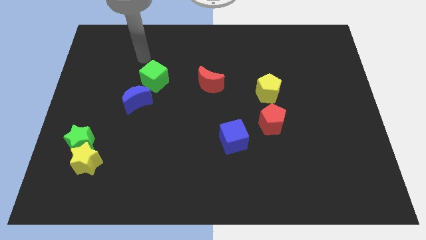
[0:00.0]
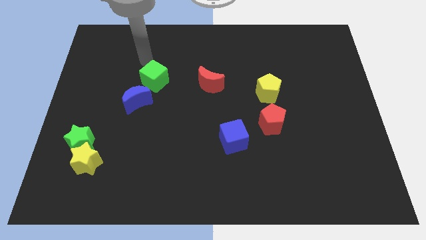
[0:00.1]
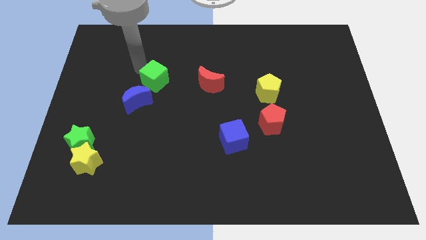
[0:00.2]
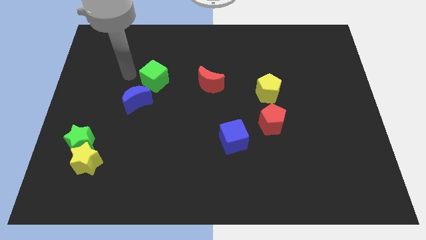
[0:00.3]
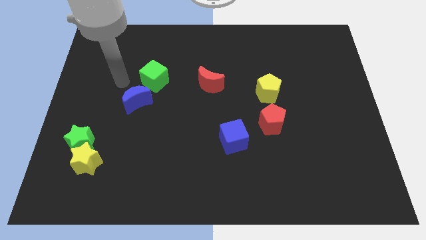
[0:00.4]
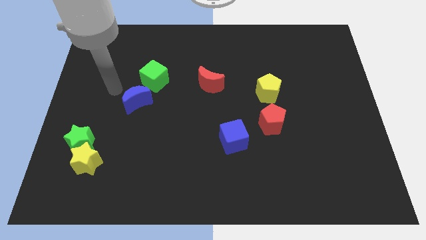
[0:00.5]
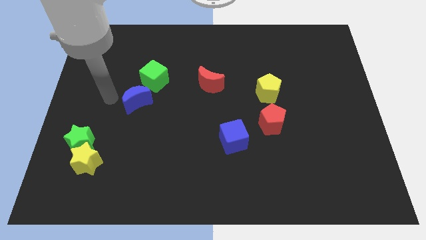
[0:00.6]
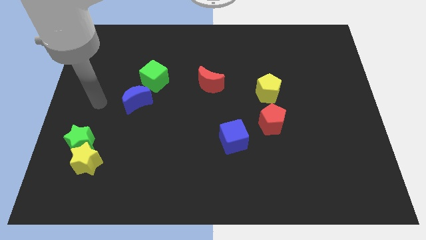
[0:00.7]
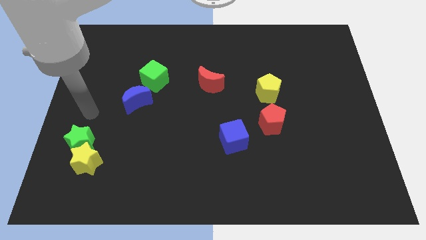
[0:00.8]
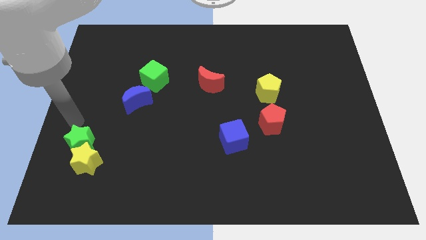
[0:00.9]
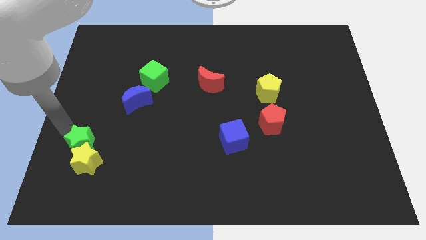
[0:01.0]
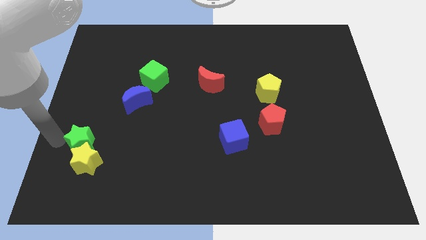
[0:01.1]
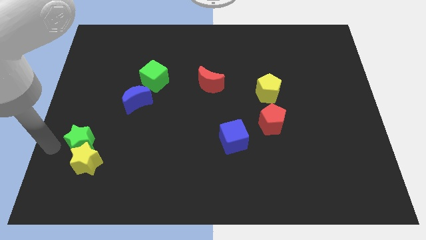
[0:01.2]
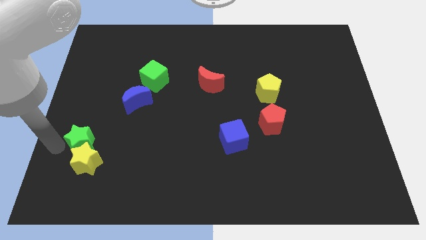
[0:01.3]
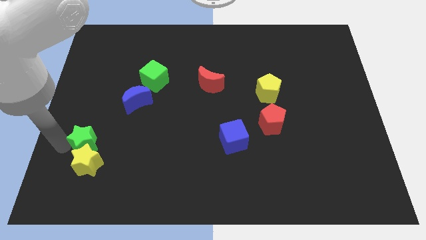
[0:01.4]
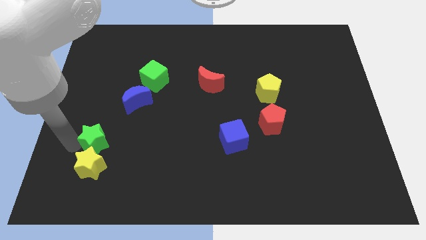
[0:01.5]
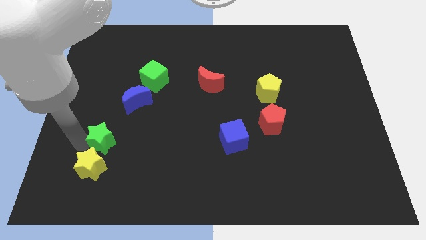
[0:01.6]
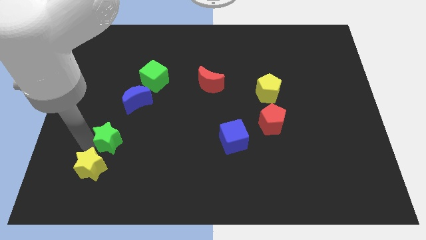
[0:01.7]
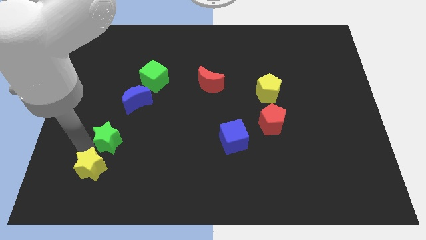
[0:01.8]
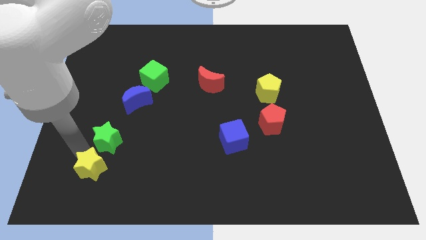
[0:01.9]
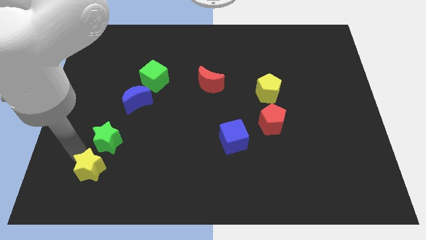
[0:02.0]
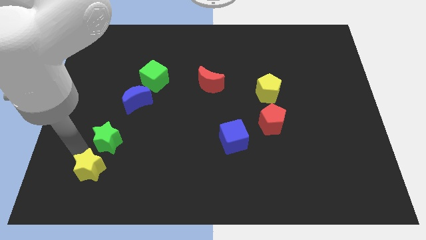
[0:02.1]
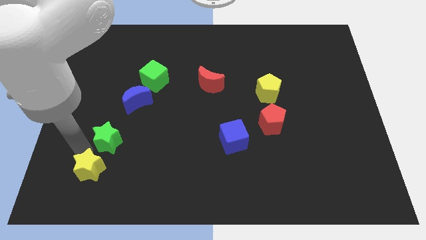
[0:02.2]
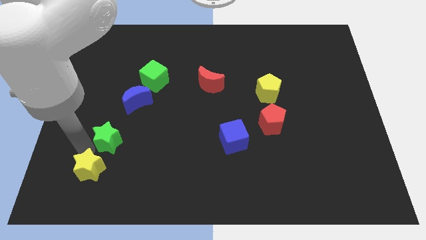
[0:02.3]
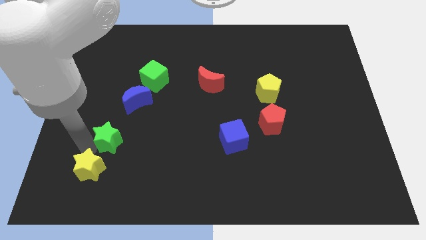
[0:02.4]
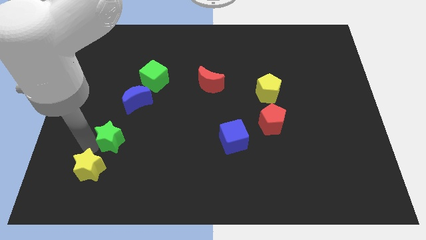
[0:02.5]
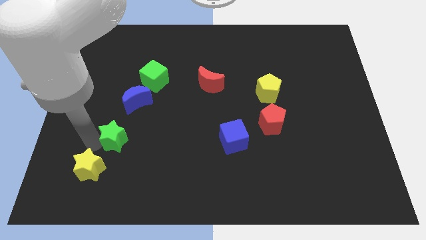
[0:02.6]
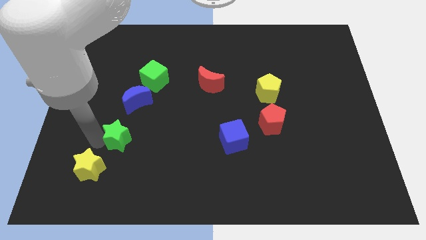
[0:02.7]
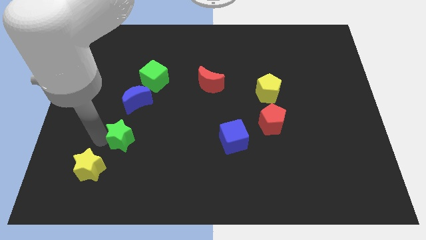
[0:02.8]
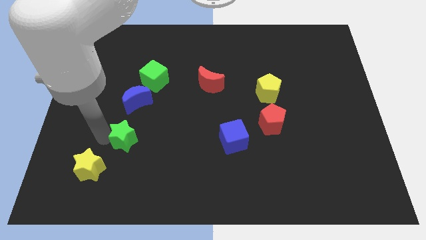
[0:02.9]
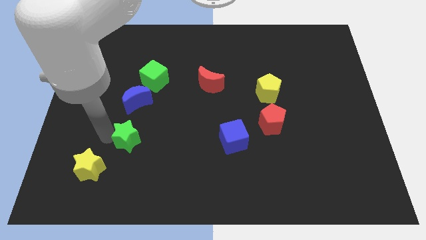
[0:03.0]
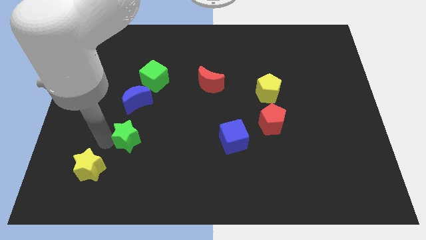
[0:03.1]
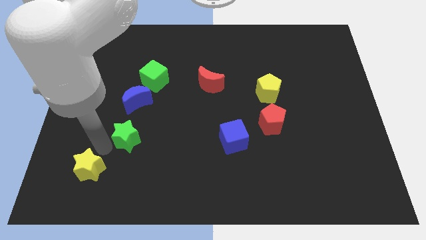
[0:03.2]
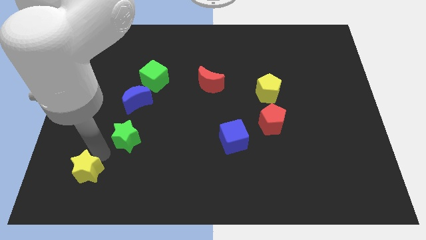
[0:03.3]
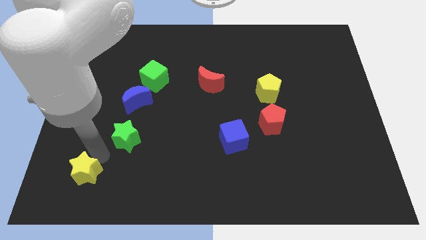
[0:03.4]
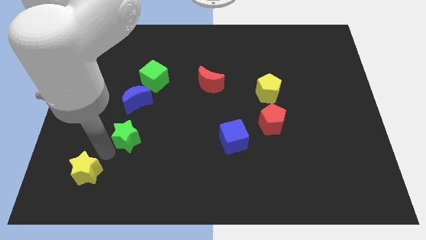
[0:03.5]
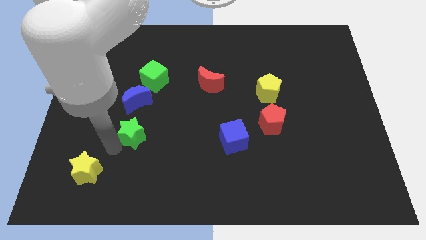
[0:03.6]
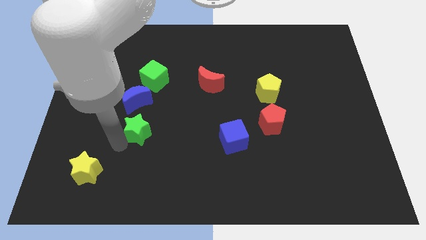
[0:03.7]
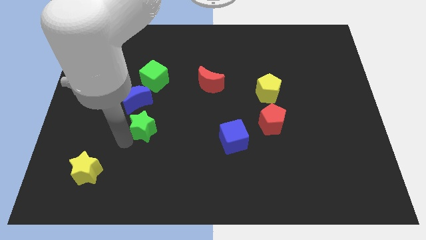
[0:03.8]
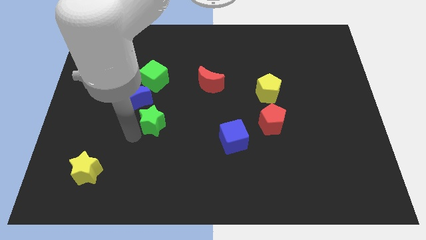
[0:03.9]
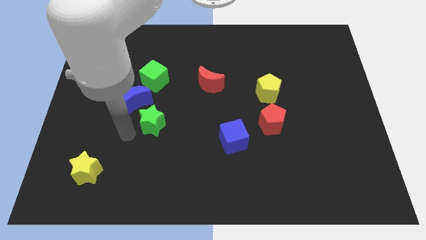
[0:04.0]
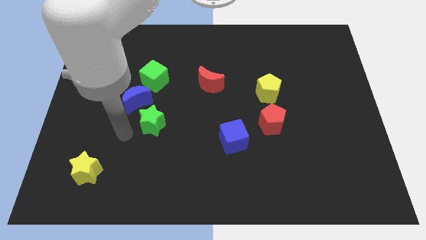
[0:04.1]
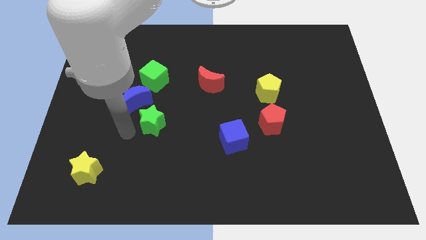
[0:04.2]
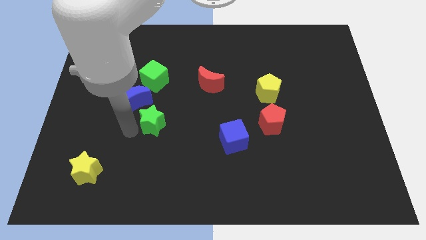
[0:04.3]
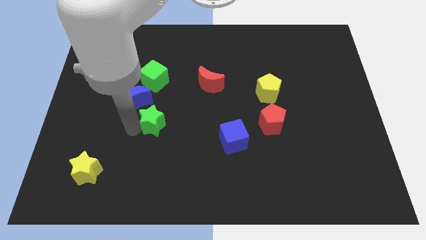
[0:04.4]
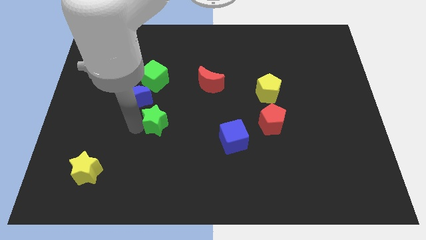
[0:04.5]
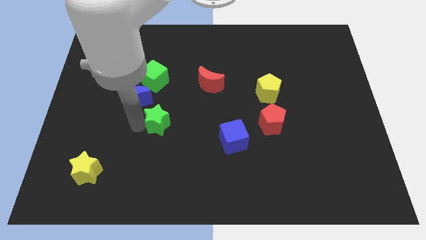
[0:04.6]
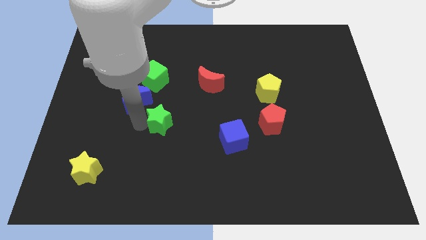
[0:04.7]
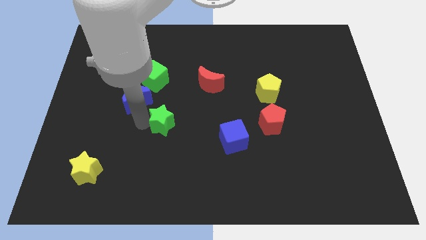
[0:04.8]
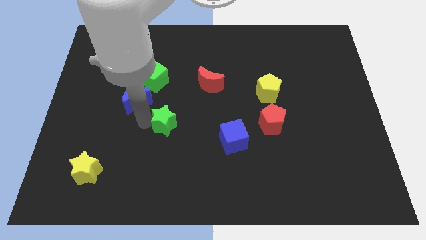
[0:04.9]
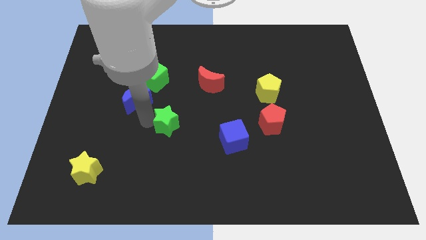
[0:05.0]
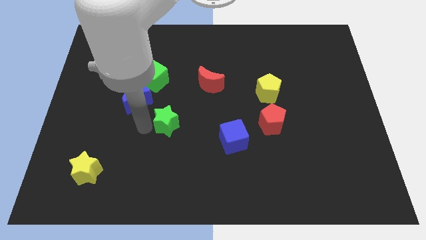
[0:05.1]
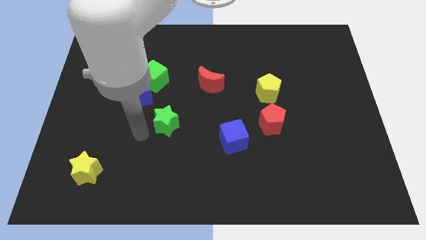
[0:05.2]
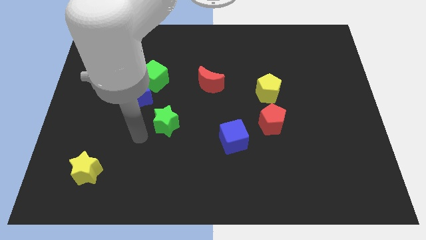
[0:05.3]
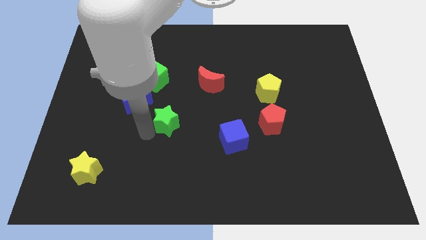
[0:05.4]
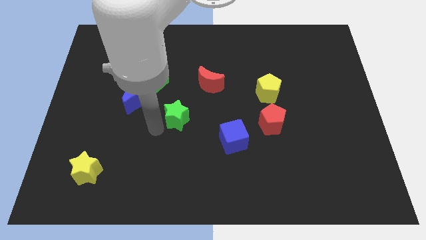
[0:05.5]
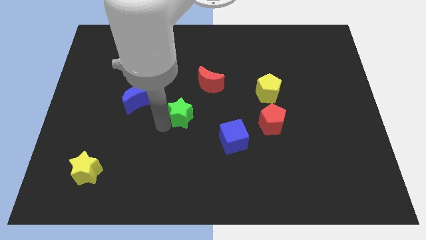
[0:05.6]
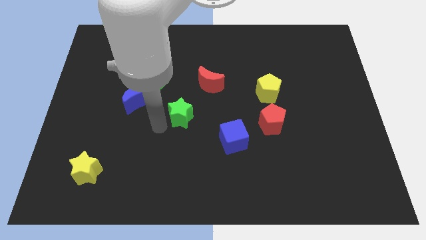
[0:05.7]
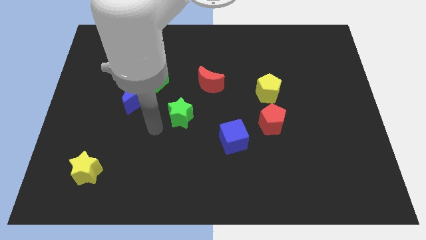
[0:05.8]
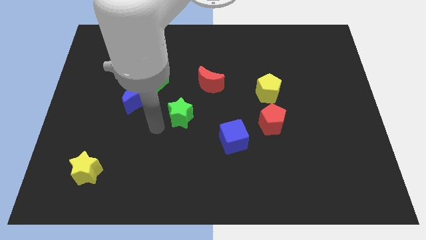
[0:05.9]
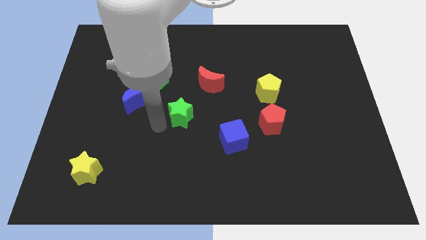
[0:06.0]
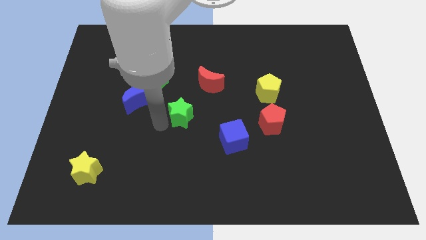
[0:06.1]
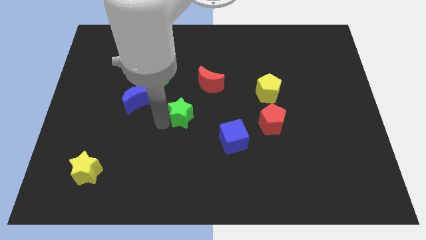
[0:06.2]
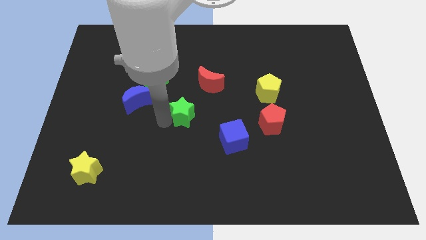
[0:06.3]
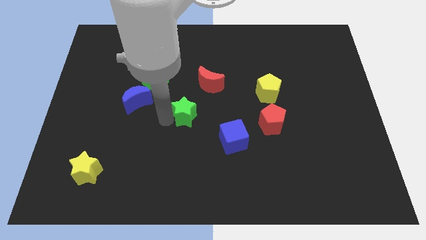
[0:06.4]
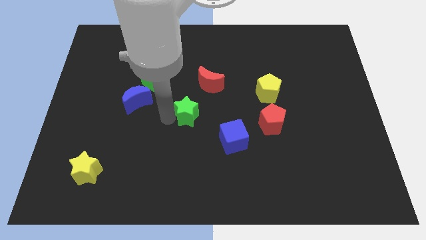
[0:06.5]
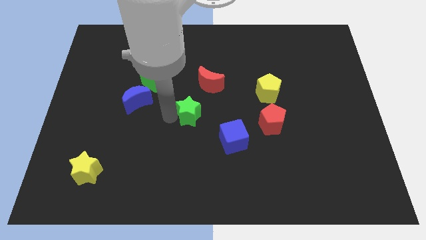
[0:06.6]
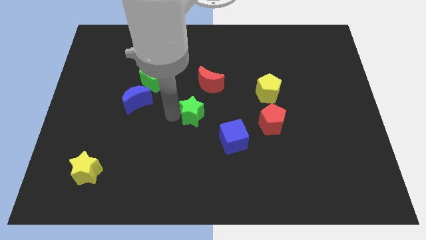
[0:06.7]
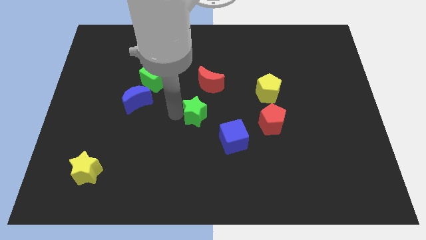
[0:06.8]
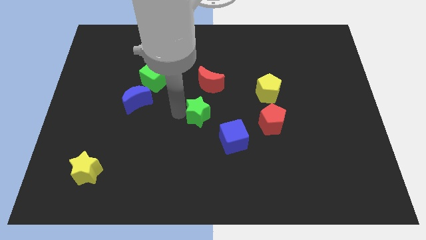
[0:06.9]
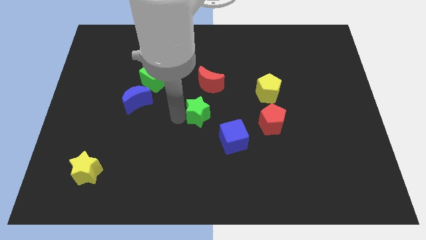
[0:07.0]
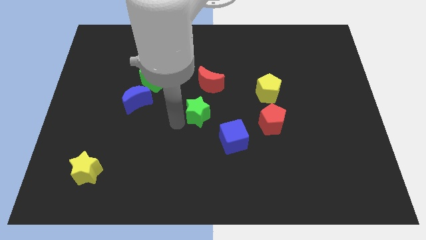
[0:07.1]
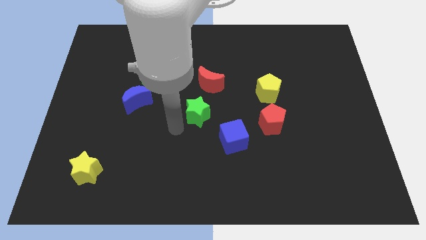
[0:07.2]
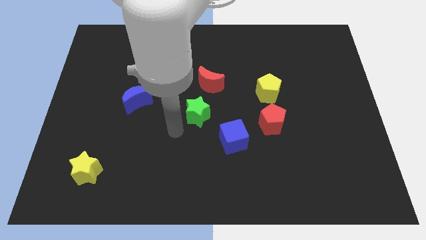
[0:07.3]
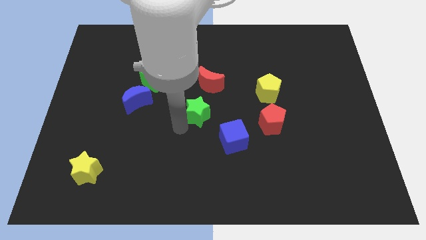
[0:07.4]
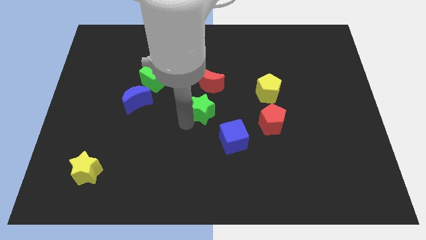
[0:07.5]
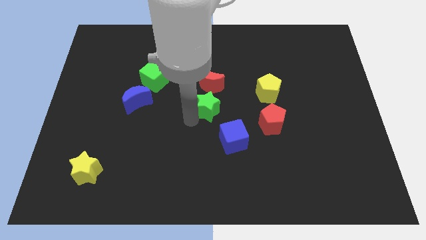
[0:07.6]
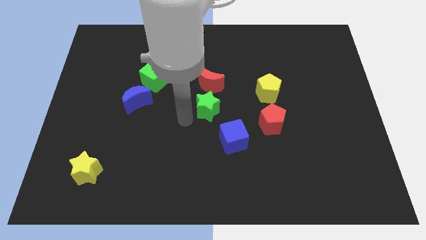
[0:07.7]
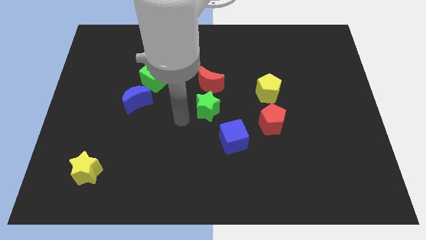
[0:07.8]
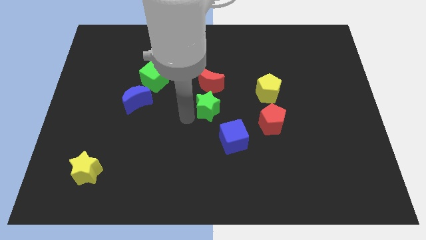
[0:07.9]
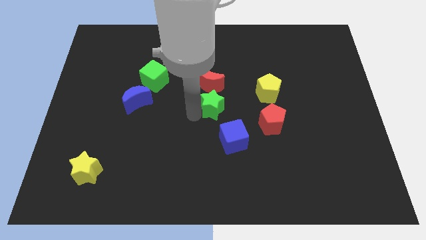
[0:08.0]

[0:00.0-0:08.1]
put the green star to the bottom right side of the red moon
